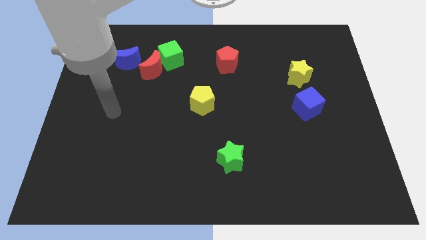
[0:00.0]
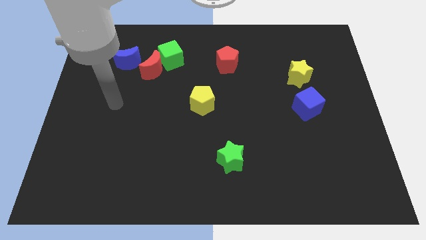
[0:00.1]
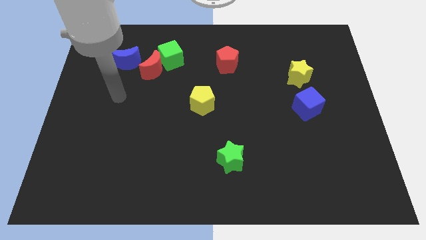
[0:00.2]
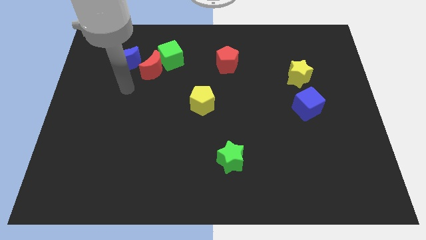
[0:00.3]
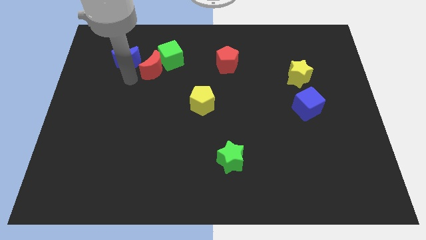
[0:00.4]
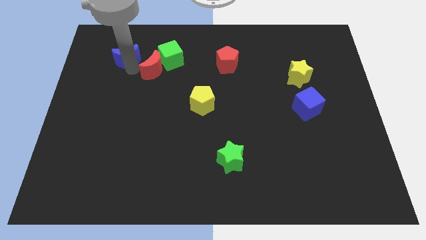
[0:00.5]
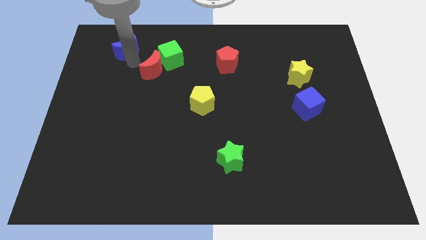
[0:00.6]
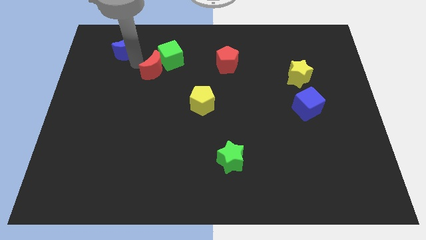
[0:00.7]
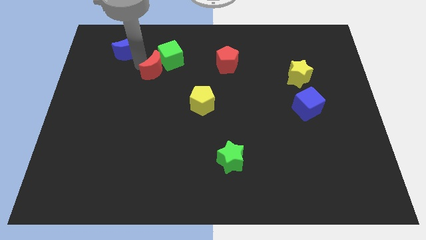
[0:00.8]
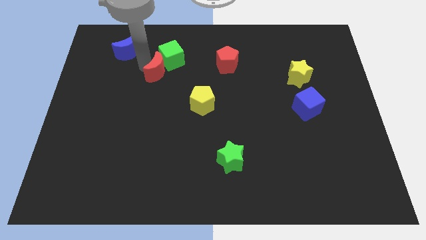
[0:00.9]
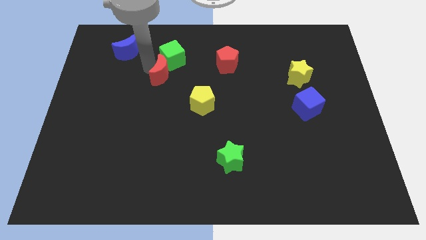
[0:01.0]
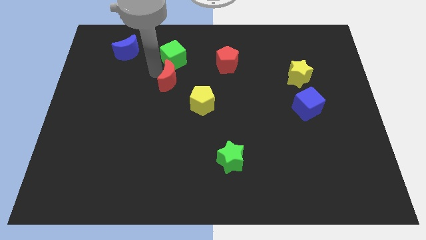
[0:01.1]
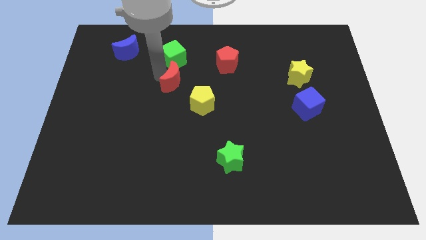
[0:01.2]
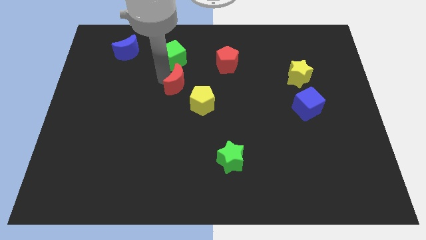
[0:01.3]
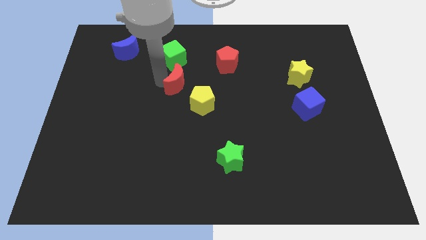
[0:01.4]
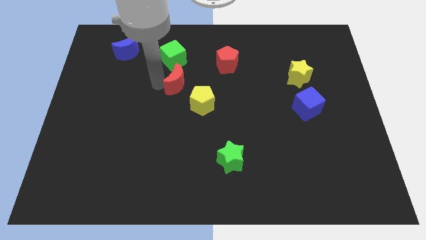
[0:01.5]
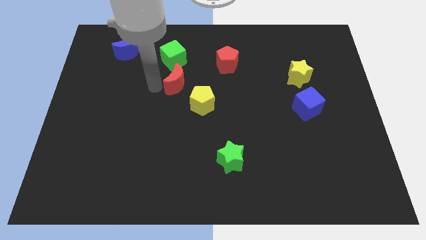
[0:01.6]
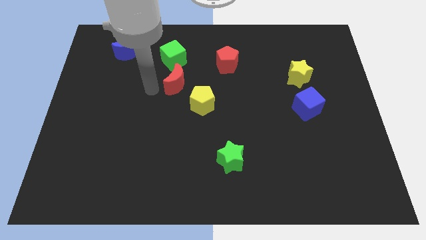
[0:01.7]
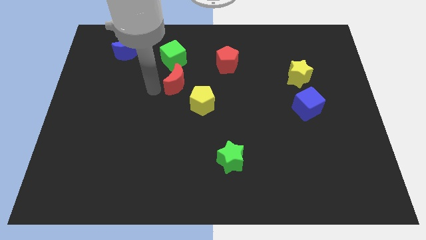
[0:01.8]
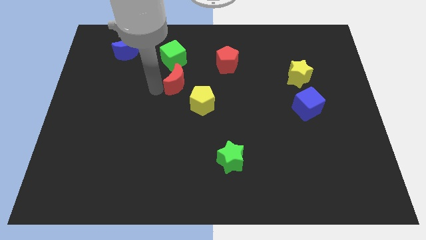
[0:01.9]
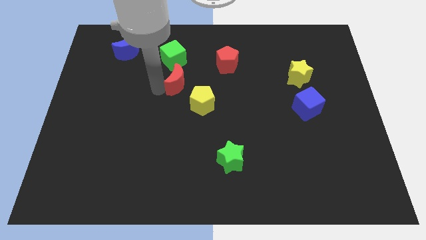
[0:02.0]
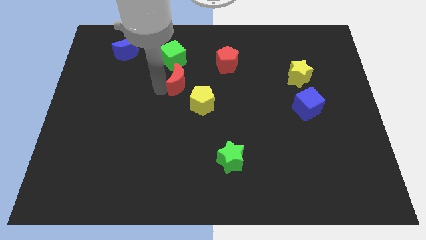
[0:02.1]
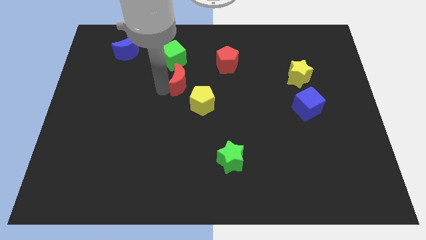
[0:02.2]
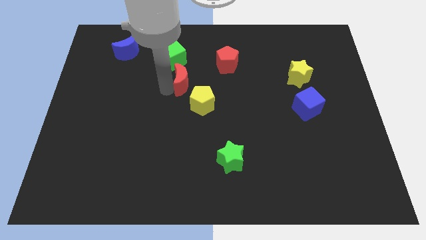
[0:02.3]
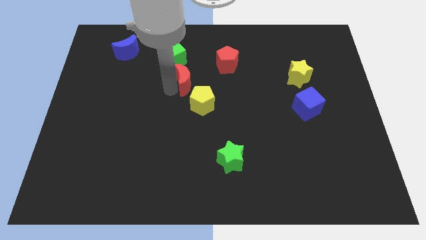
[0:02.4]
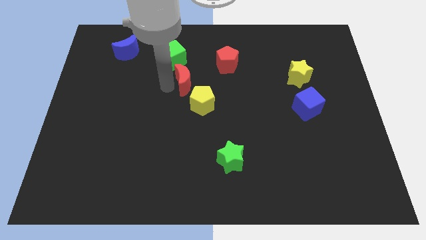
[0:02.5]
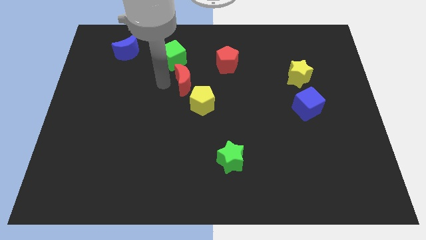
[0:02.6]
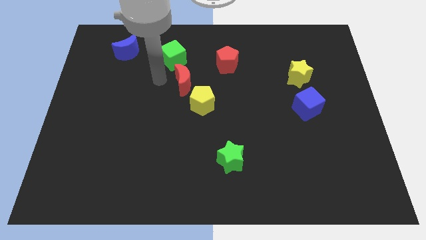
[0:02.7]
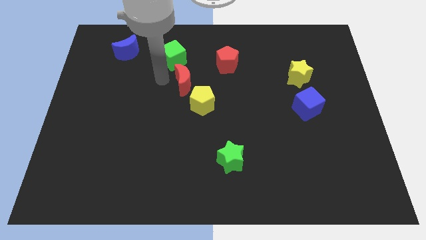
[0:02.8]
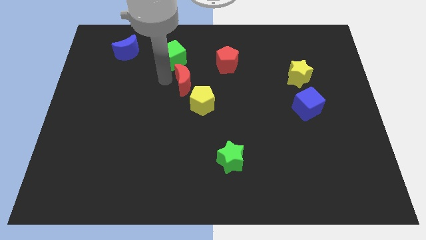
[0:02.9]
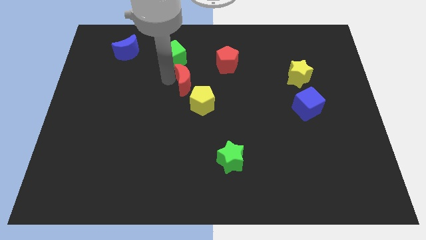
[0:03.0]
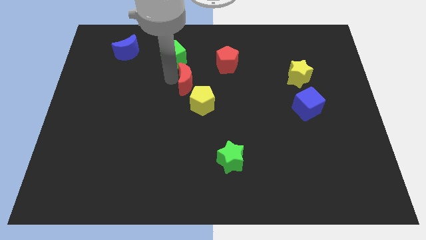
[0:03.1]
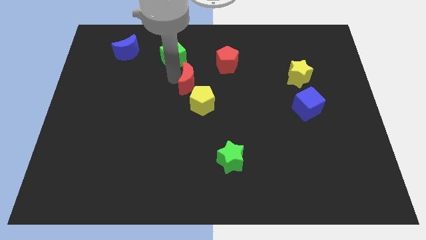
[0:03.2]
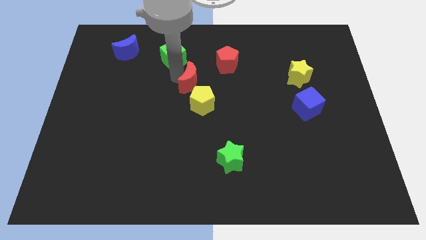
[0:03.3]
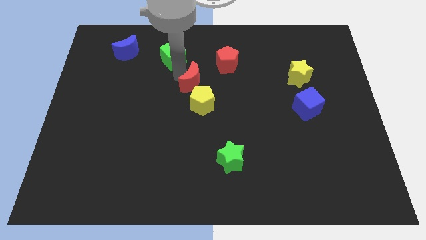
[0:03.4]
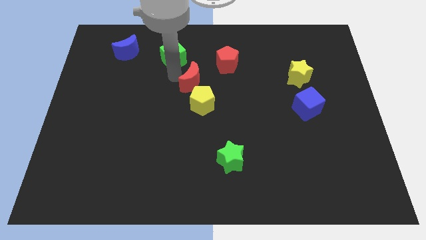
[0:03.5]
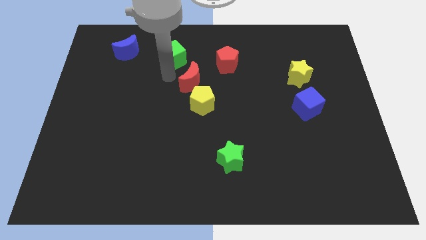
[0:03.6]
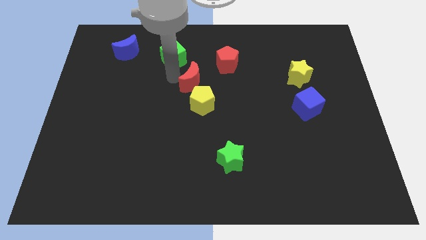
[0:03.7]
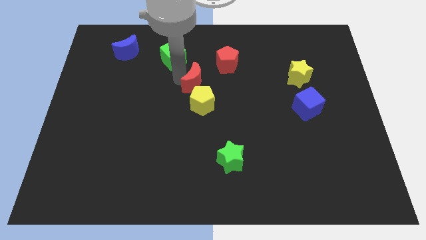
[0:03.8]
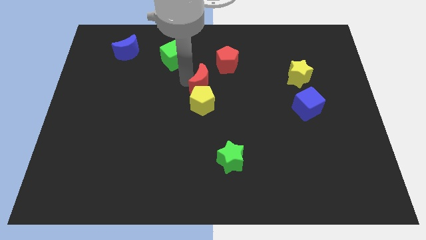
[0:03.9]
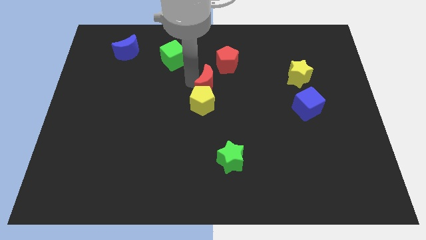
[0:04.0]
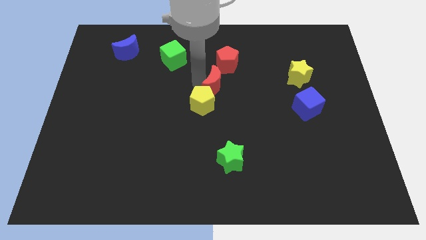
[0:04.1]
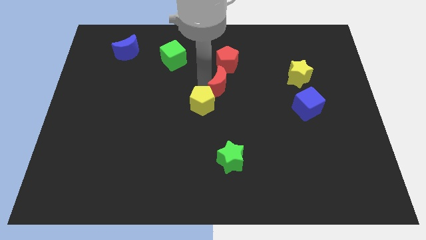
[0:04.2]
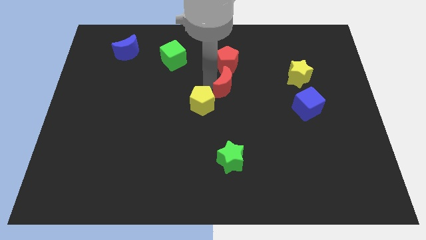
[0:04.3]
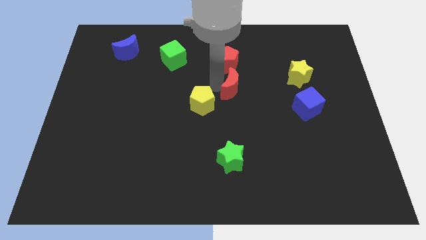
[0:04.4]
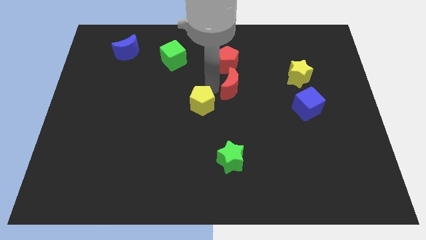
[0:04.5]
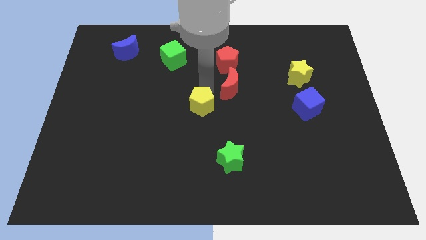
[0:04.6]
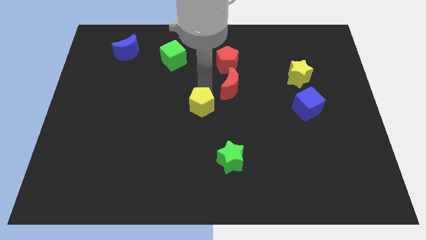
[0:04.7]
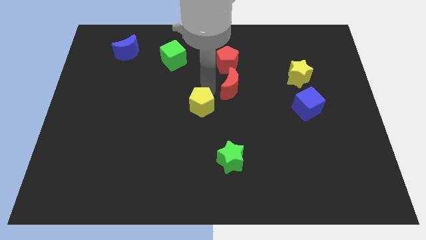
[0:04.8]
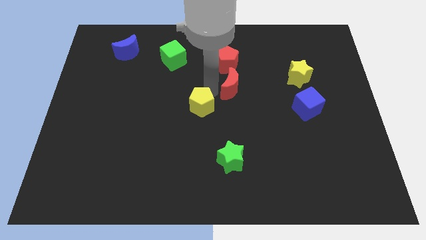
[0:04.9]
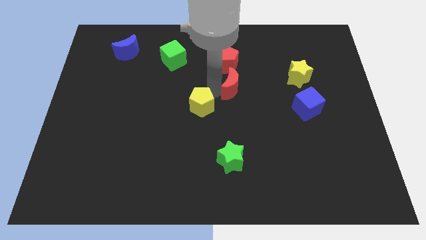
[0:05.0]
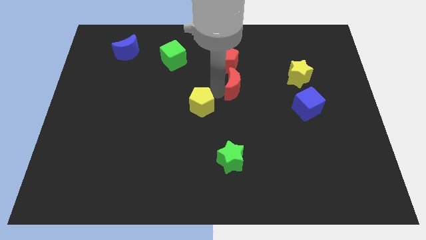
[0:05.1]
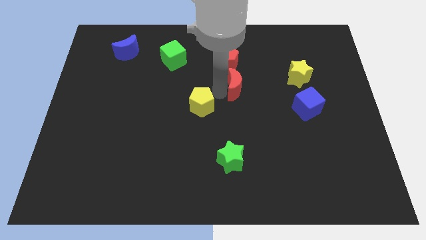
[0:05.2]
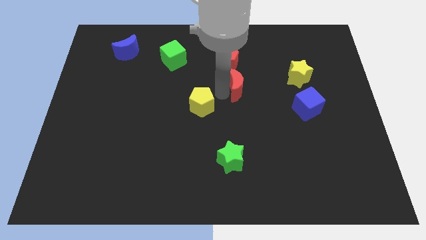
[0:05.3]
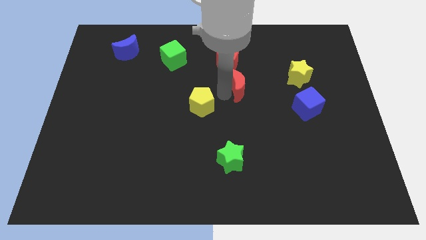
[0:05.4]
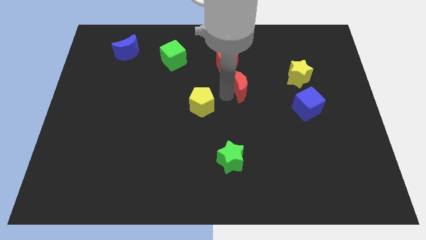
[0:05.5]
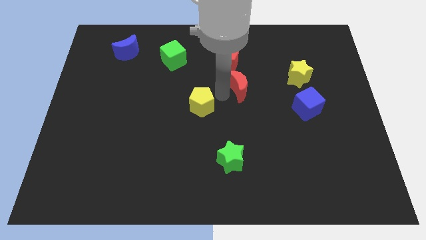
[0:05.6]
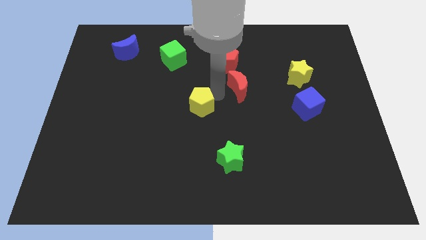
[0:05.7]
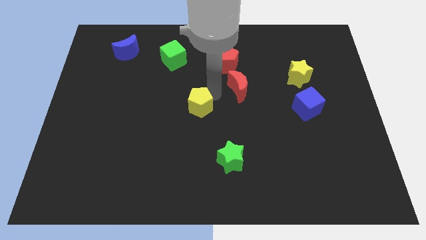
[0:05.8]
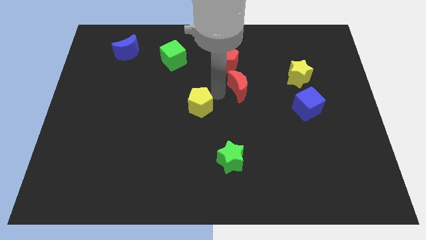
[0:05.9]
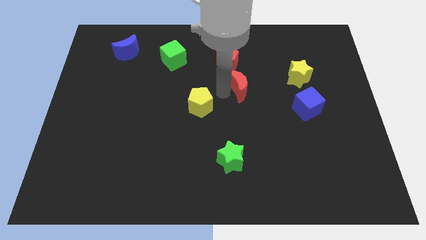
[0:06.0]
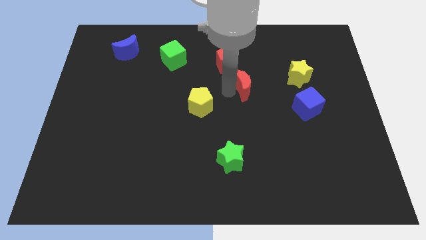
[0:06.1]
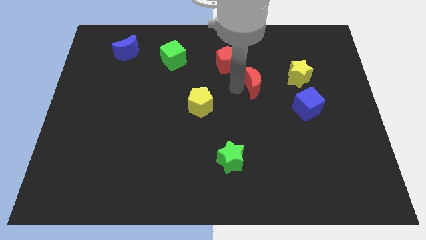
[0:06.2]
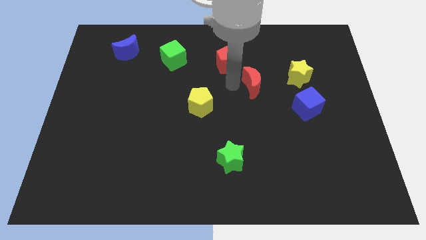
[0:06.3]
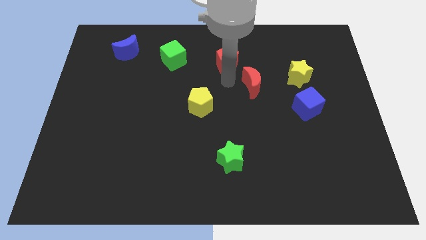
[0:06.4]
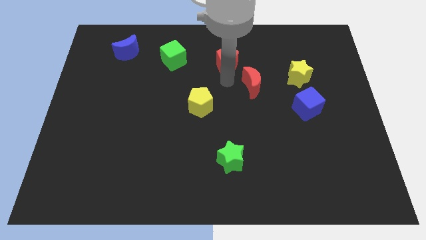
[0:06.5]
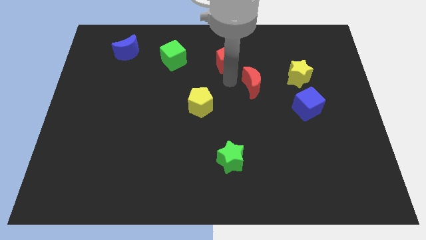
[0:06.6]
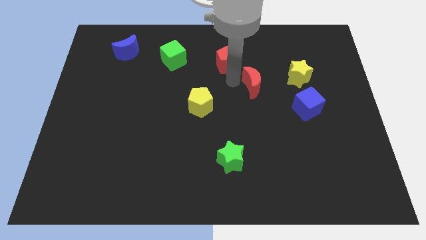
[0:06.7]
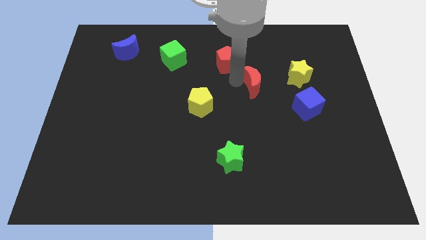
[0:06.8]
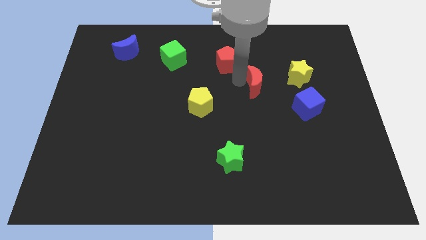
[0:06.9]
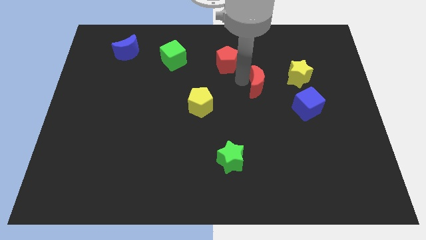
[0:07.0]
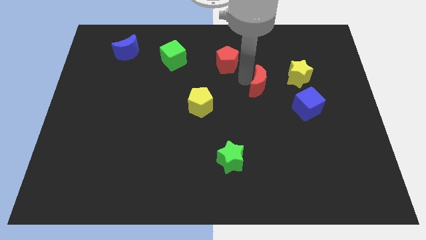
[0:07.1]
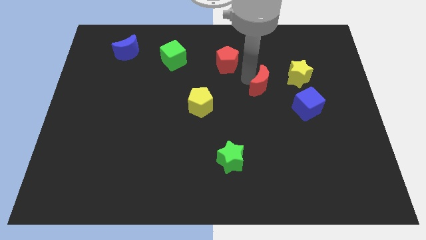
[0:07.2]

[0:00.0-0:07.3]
slide the red moon to the top left of the blue cube
